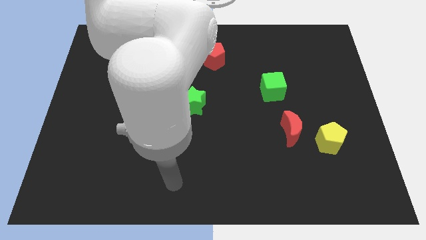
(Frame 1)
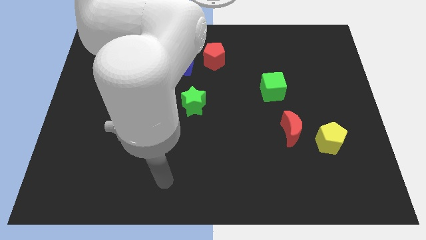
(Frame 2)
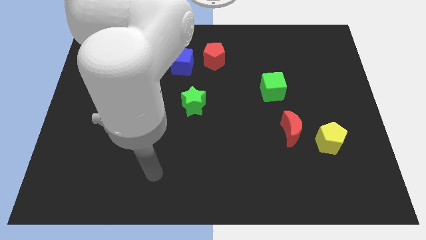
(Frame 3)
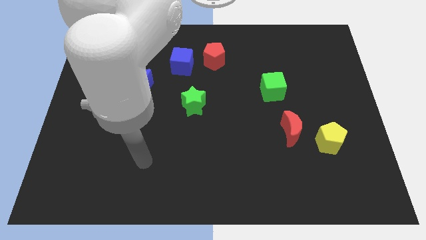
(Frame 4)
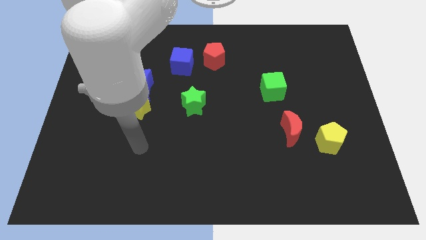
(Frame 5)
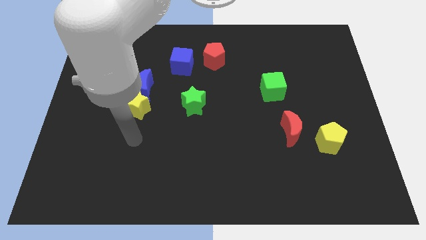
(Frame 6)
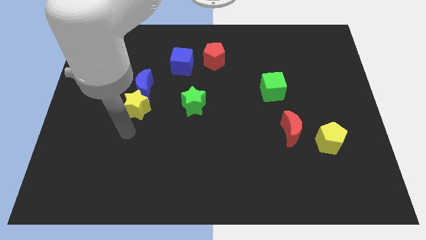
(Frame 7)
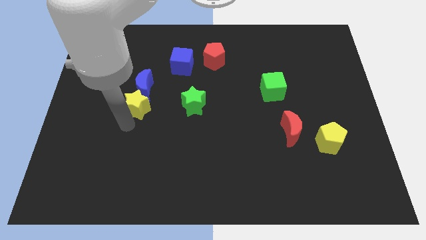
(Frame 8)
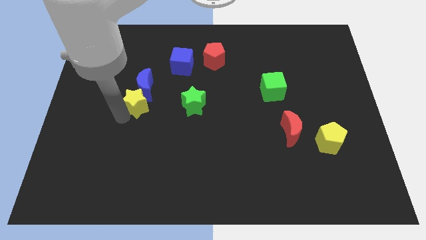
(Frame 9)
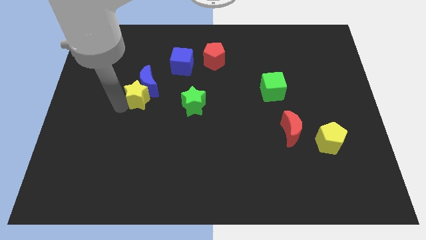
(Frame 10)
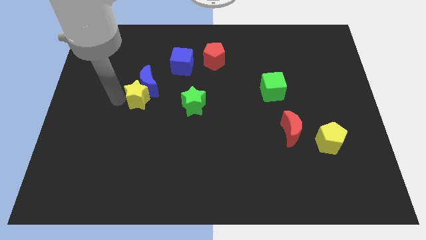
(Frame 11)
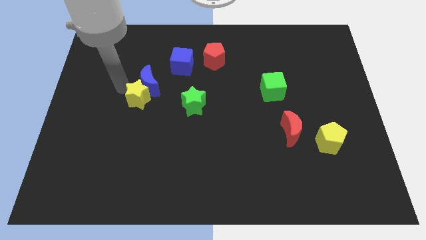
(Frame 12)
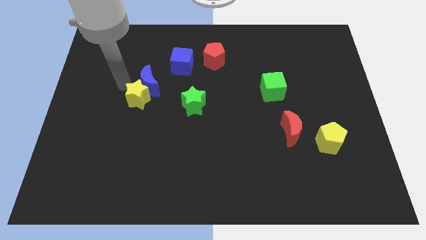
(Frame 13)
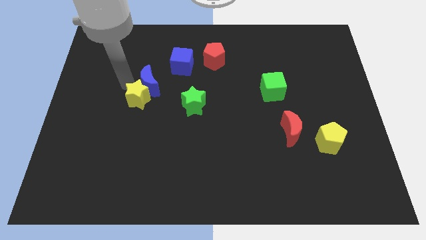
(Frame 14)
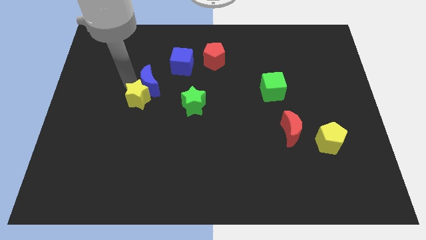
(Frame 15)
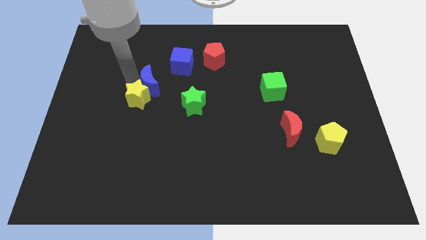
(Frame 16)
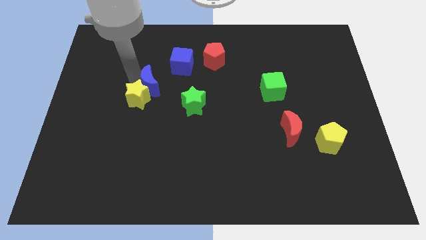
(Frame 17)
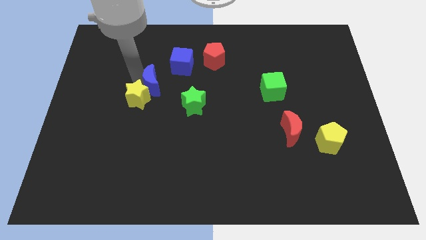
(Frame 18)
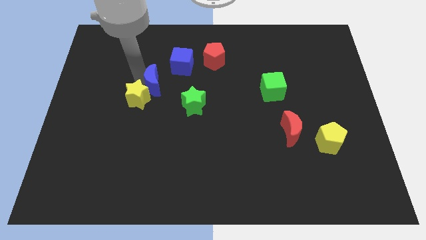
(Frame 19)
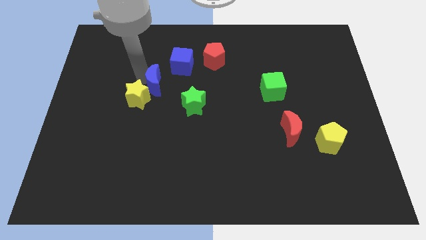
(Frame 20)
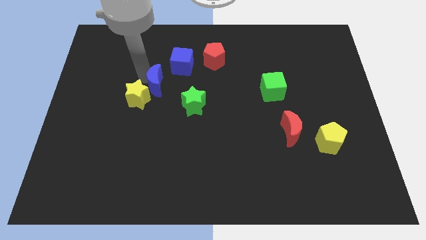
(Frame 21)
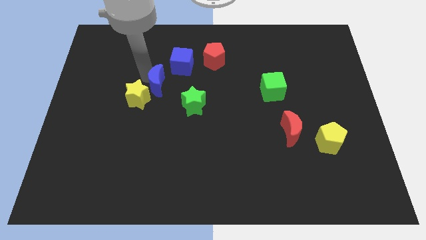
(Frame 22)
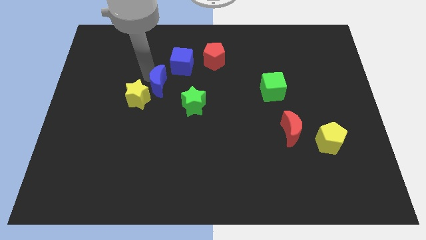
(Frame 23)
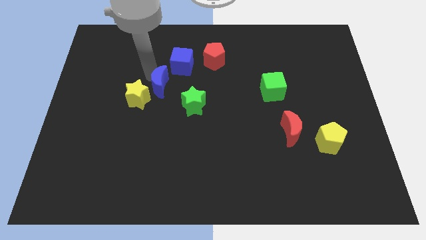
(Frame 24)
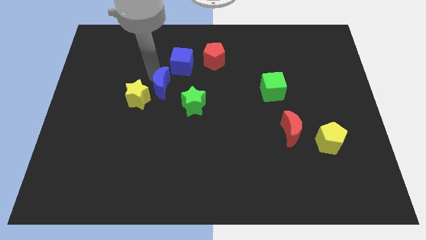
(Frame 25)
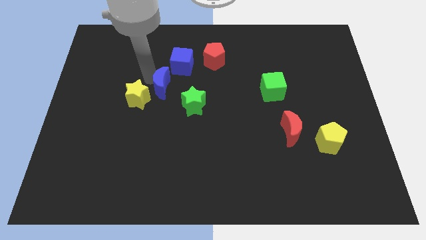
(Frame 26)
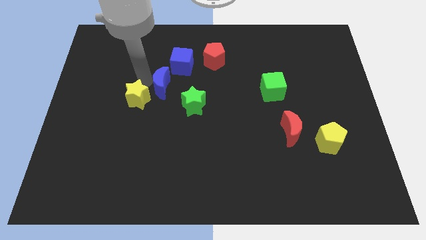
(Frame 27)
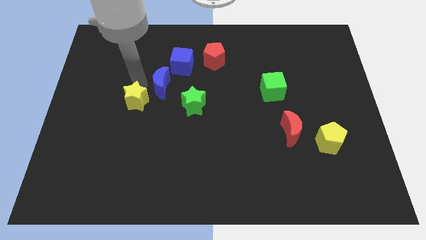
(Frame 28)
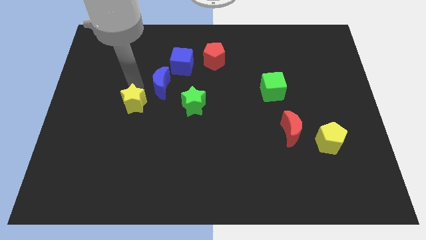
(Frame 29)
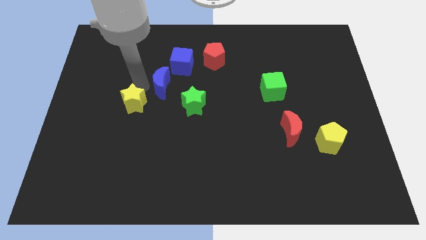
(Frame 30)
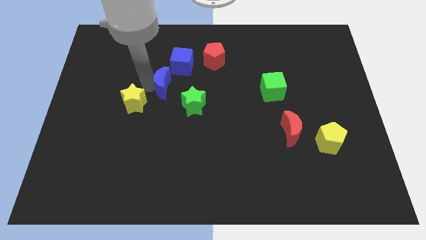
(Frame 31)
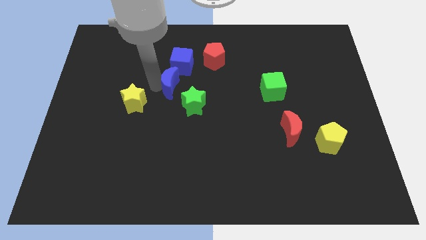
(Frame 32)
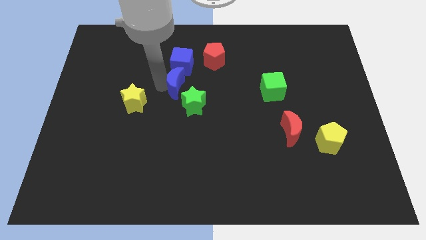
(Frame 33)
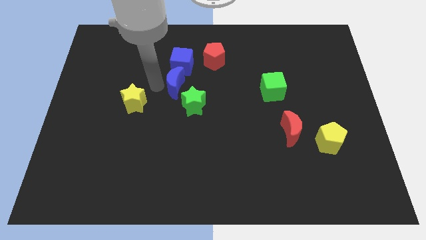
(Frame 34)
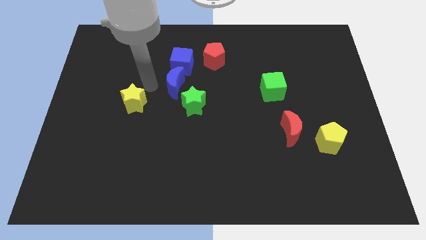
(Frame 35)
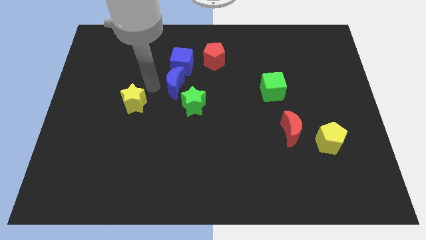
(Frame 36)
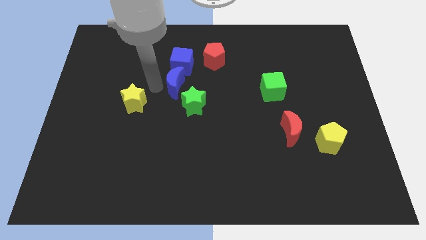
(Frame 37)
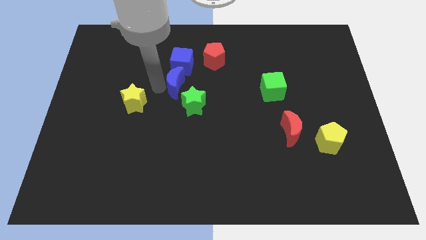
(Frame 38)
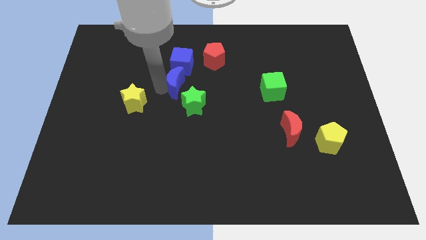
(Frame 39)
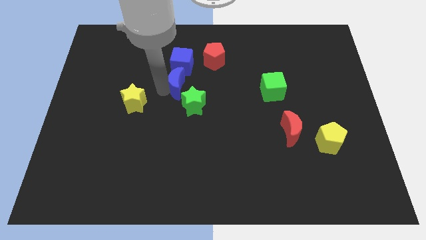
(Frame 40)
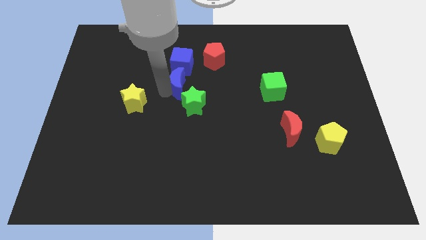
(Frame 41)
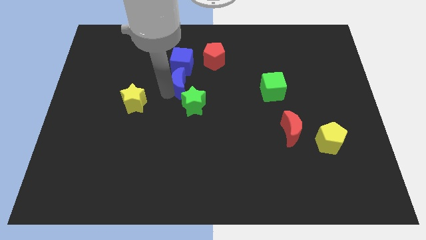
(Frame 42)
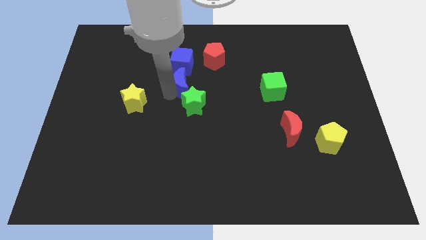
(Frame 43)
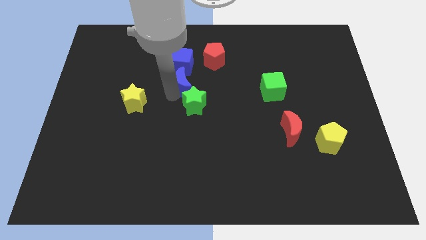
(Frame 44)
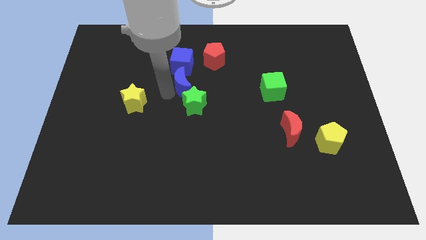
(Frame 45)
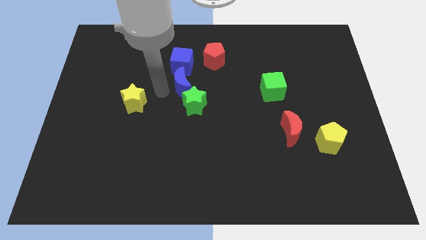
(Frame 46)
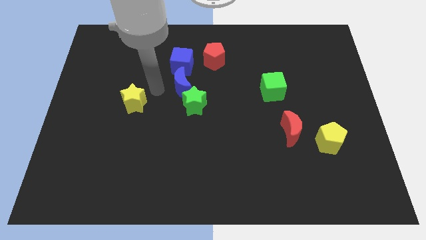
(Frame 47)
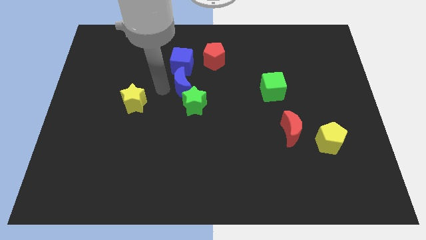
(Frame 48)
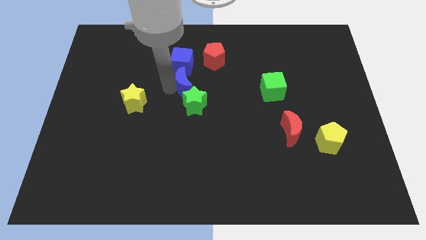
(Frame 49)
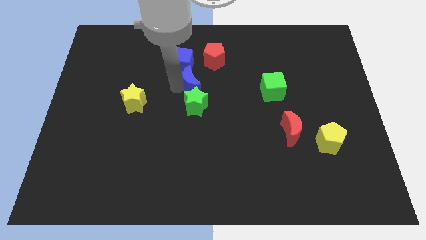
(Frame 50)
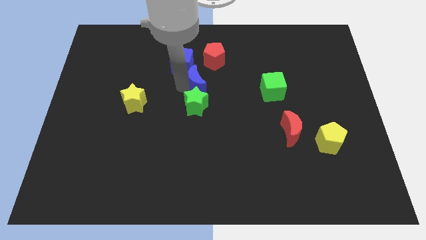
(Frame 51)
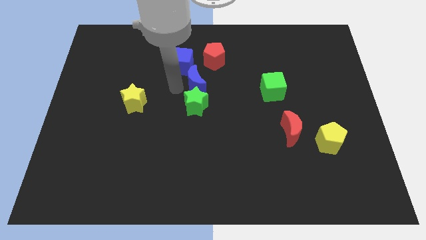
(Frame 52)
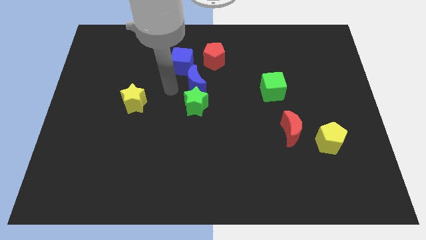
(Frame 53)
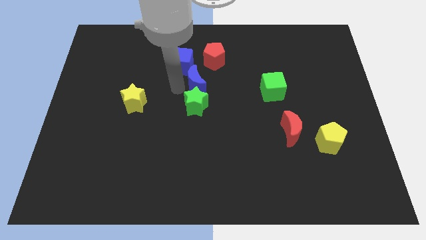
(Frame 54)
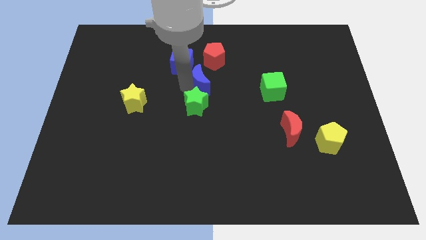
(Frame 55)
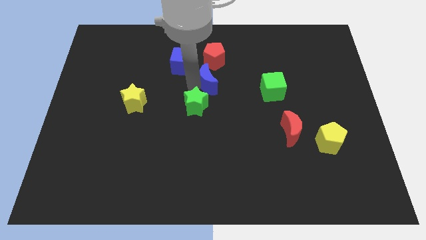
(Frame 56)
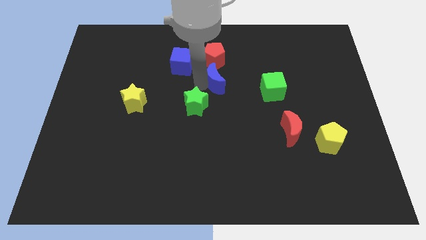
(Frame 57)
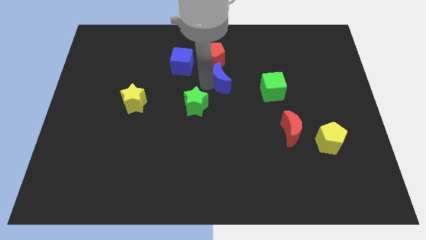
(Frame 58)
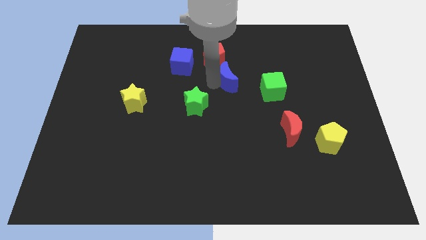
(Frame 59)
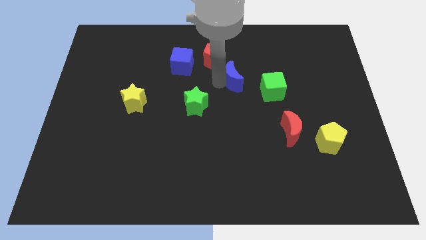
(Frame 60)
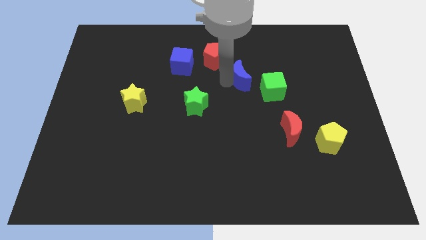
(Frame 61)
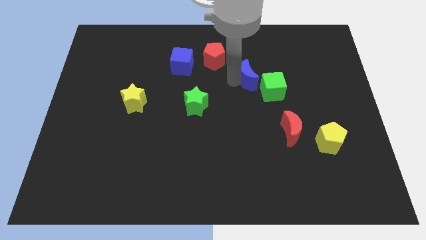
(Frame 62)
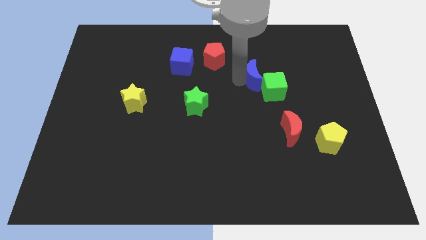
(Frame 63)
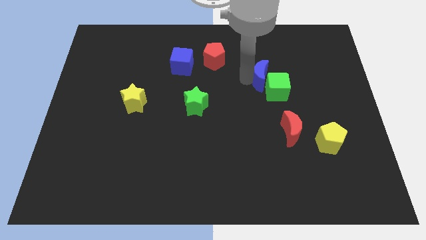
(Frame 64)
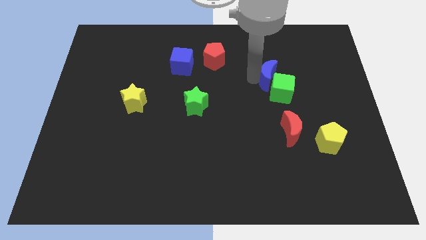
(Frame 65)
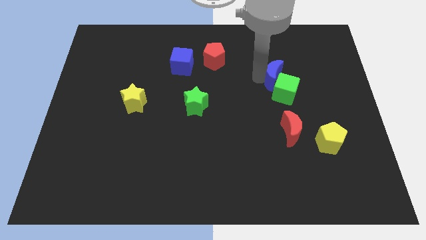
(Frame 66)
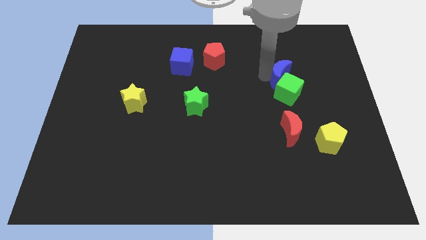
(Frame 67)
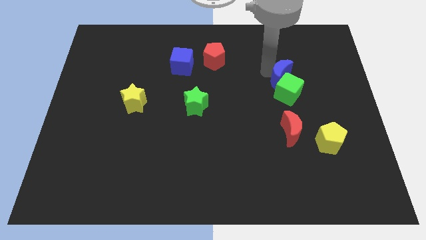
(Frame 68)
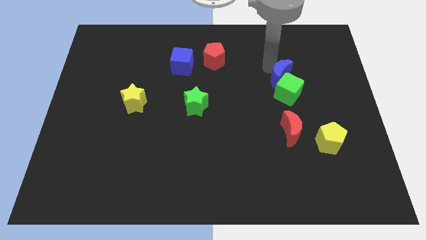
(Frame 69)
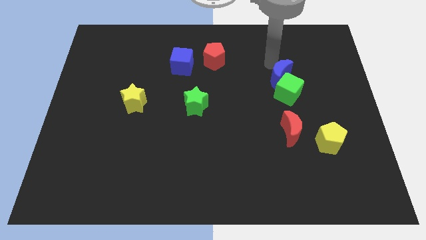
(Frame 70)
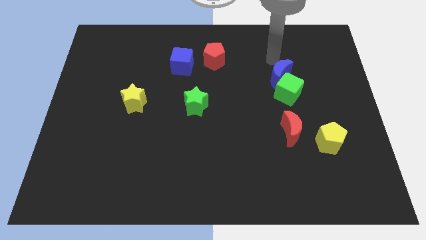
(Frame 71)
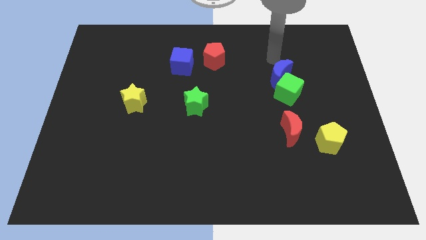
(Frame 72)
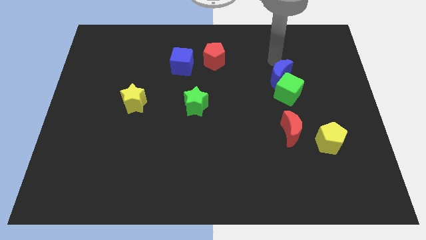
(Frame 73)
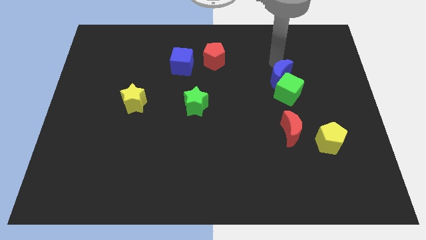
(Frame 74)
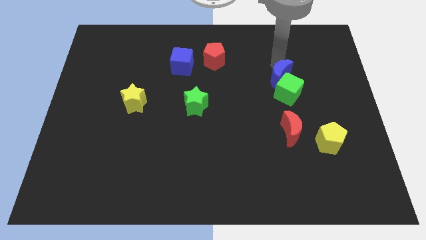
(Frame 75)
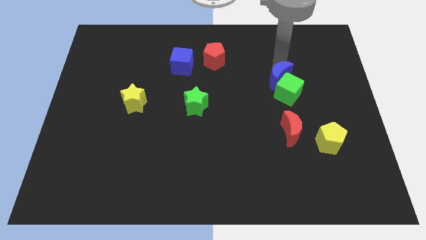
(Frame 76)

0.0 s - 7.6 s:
move the blue moon above the red moon
